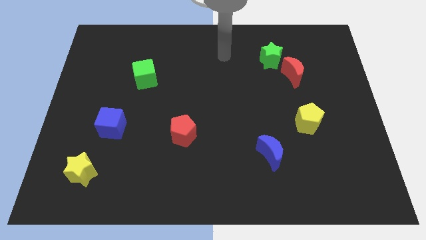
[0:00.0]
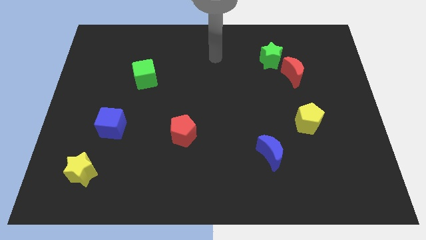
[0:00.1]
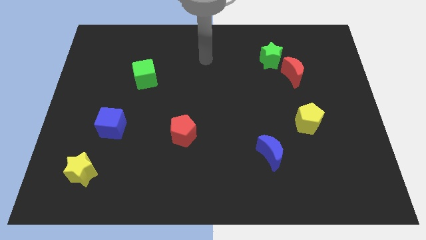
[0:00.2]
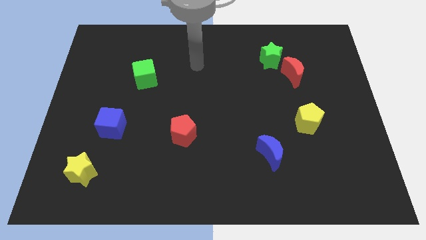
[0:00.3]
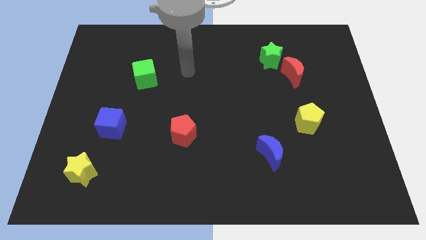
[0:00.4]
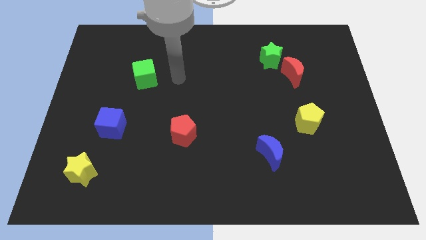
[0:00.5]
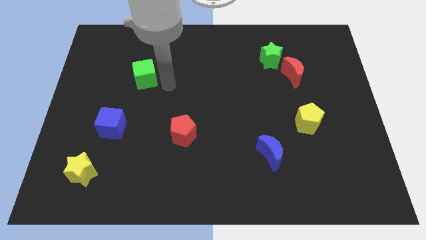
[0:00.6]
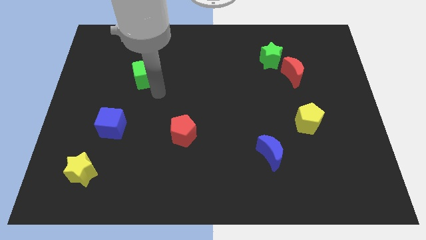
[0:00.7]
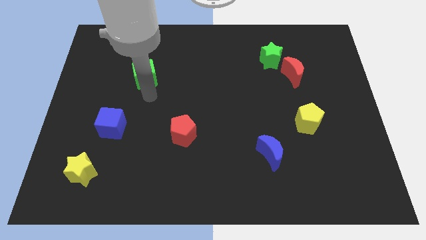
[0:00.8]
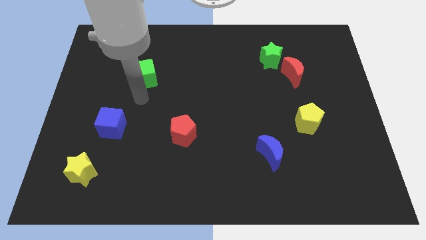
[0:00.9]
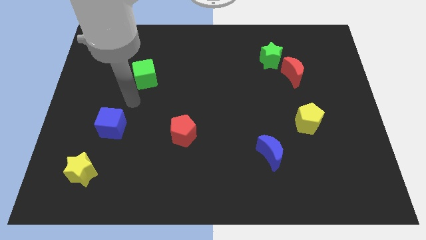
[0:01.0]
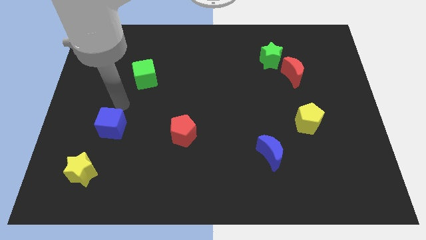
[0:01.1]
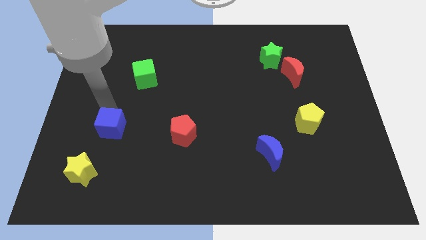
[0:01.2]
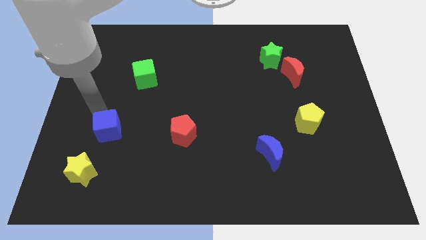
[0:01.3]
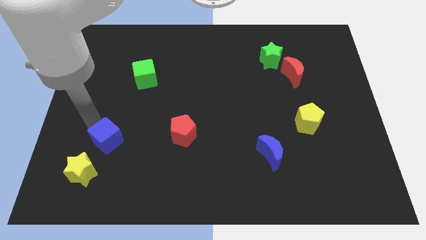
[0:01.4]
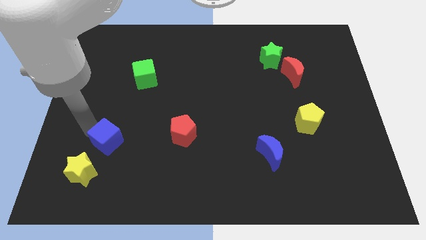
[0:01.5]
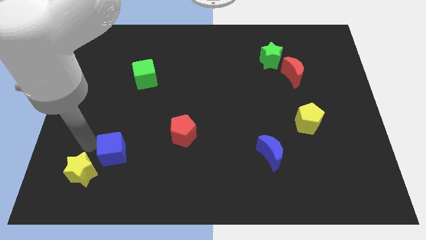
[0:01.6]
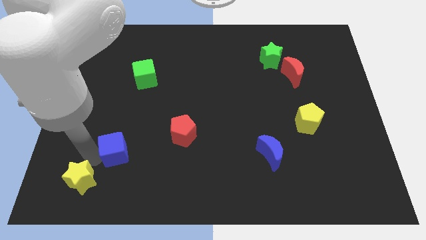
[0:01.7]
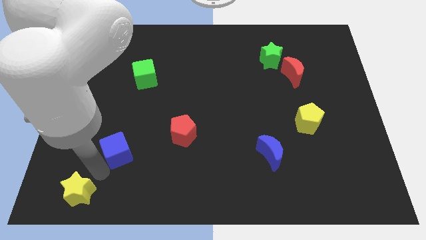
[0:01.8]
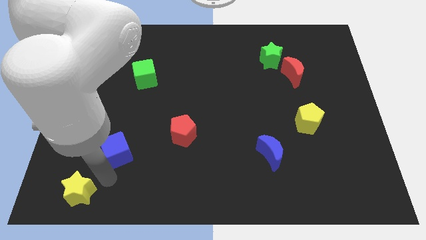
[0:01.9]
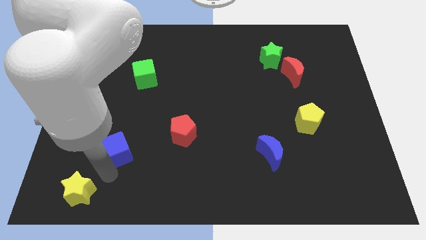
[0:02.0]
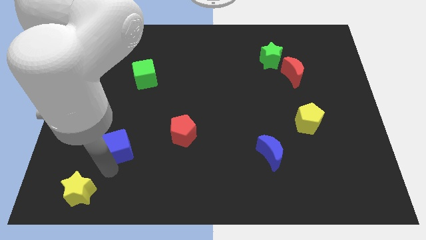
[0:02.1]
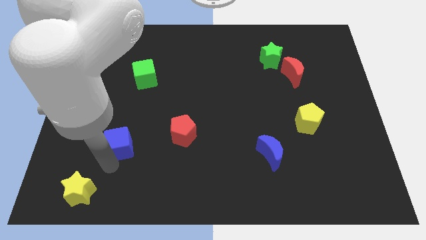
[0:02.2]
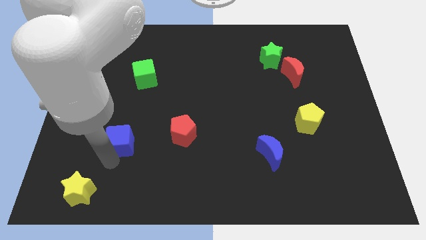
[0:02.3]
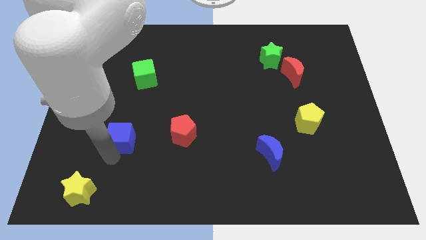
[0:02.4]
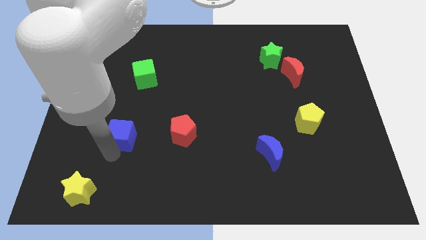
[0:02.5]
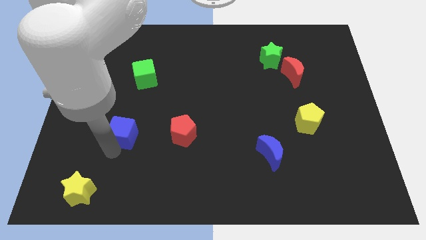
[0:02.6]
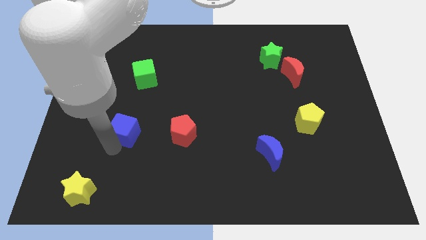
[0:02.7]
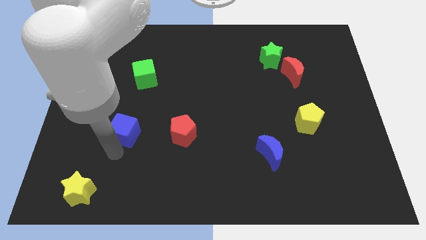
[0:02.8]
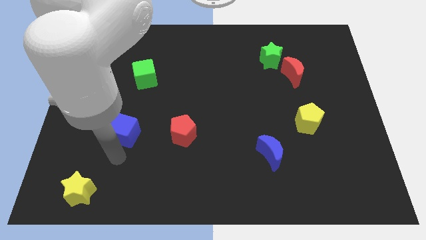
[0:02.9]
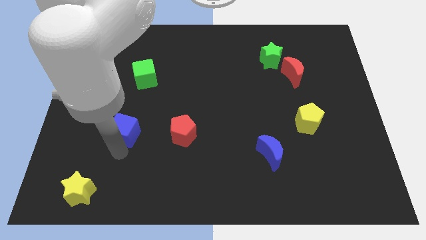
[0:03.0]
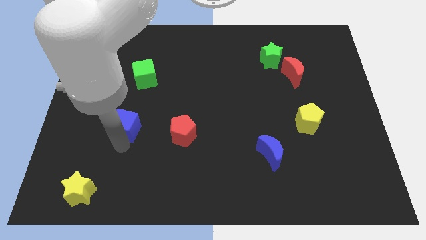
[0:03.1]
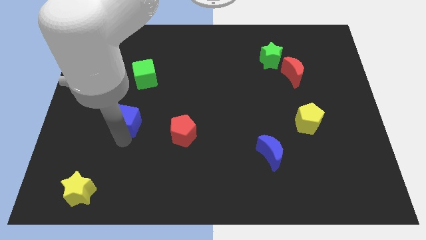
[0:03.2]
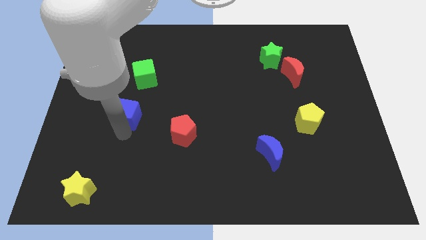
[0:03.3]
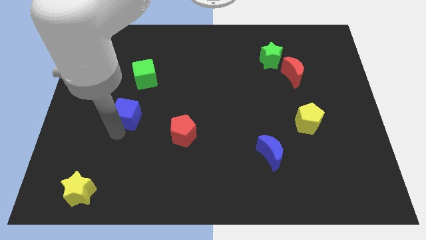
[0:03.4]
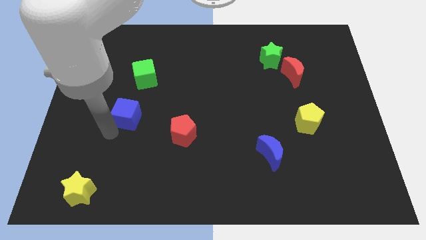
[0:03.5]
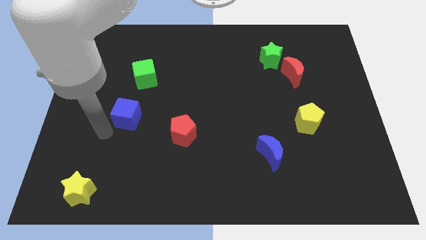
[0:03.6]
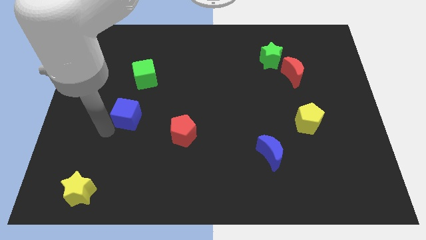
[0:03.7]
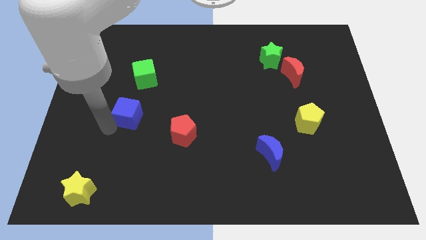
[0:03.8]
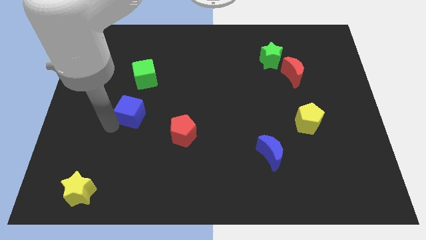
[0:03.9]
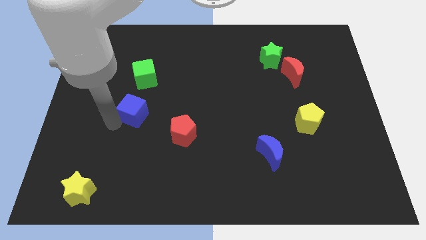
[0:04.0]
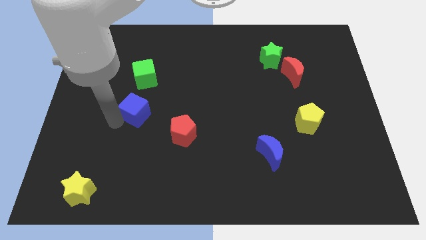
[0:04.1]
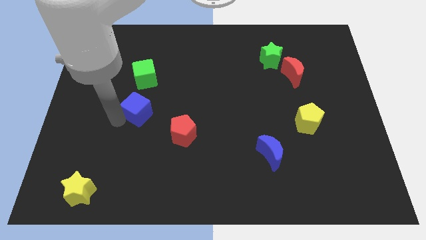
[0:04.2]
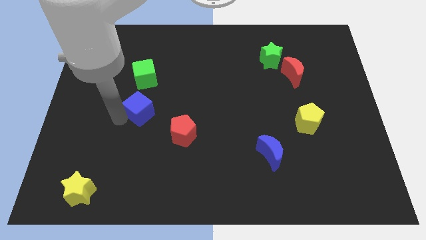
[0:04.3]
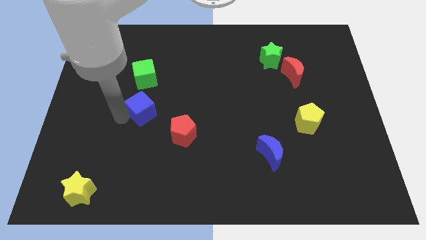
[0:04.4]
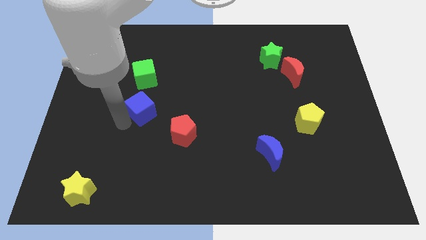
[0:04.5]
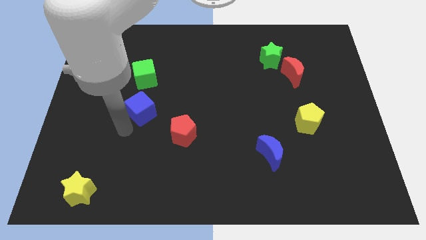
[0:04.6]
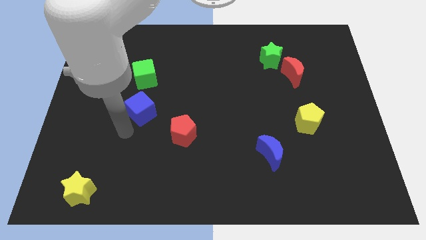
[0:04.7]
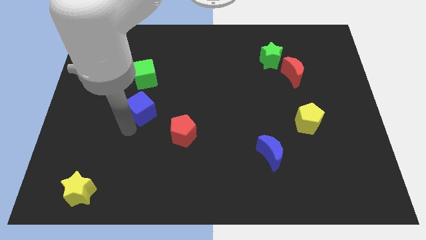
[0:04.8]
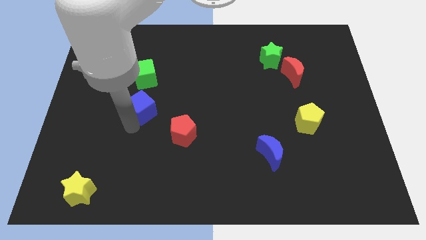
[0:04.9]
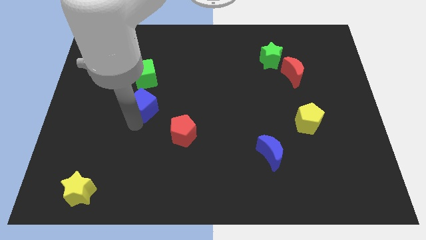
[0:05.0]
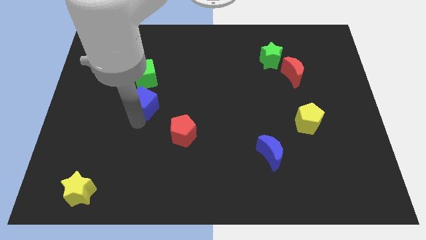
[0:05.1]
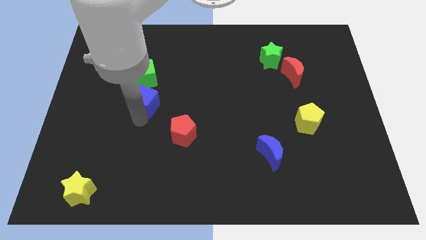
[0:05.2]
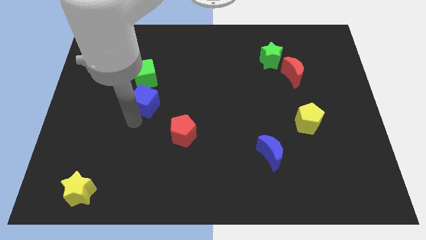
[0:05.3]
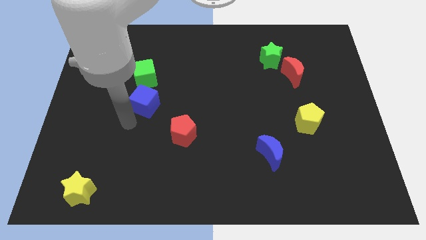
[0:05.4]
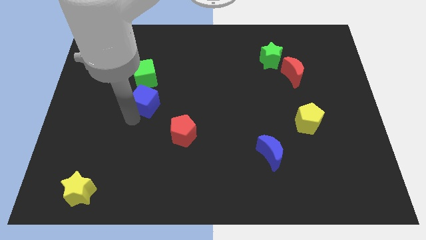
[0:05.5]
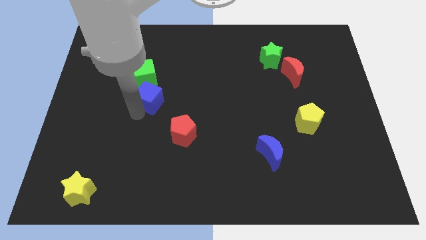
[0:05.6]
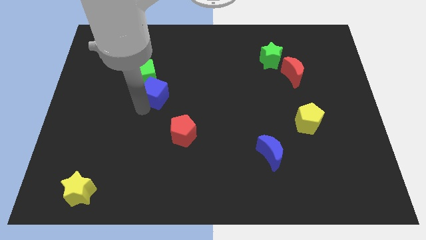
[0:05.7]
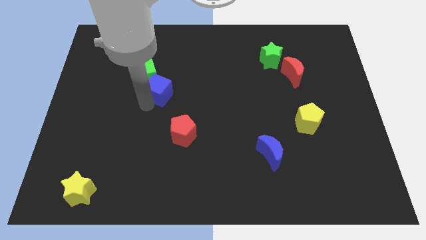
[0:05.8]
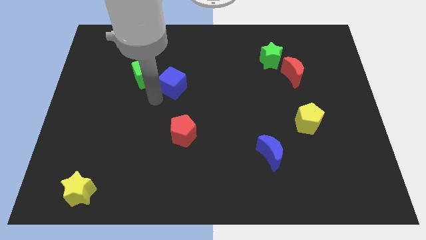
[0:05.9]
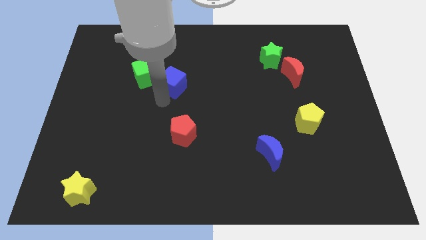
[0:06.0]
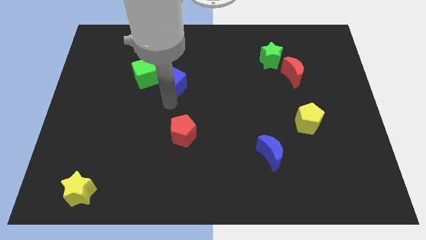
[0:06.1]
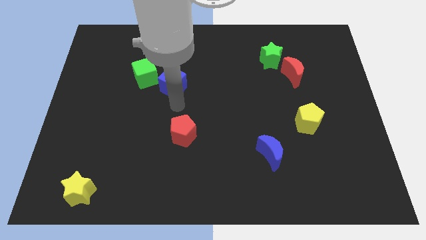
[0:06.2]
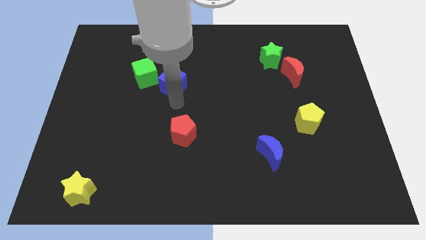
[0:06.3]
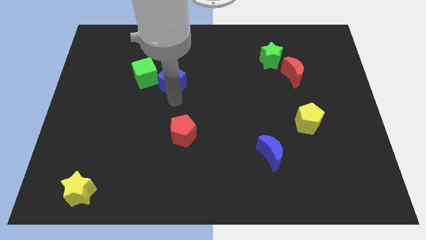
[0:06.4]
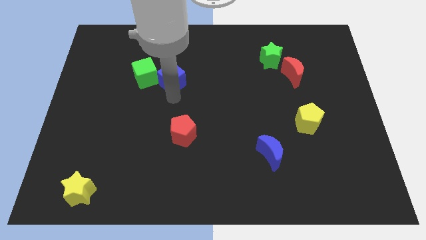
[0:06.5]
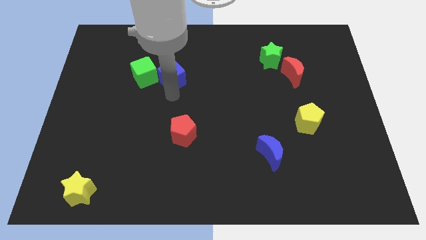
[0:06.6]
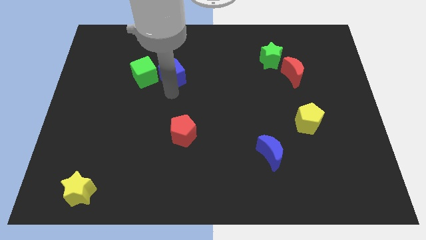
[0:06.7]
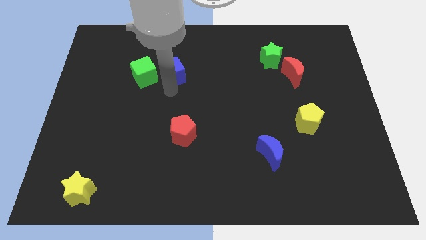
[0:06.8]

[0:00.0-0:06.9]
slide the blue cube to the top right side of the green cube

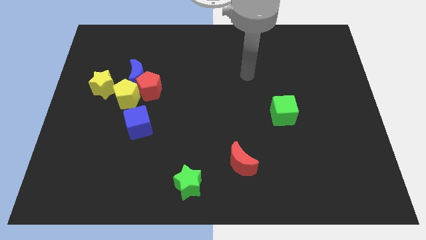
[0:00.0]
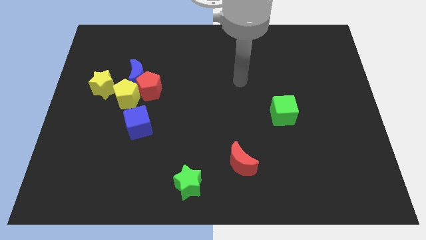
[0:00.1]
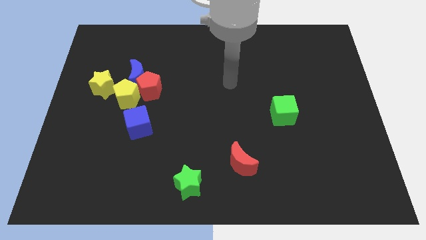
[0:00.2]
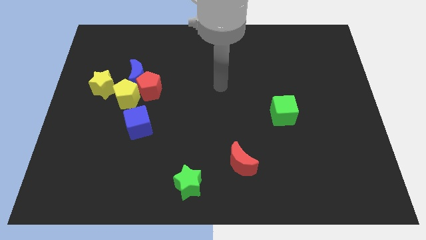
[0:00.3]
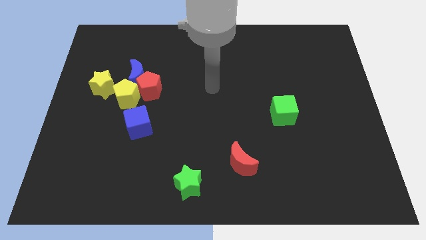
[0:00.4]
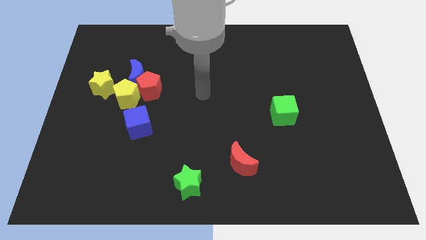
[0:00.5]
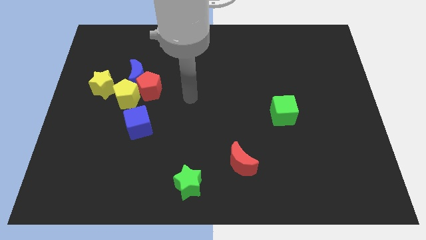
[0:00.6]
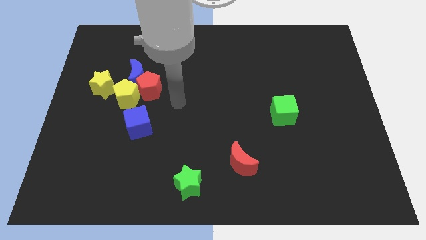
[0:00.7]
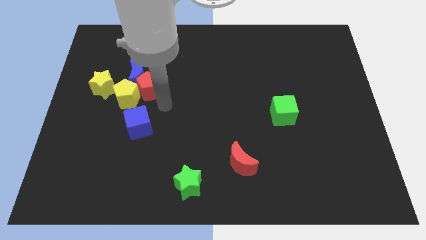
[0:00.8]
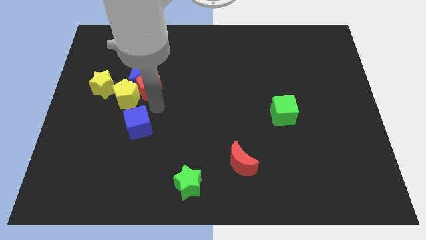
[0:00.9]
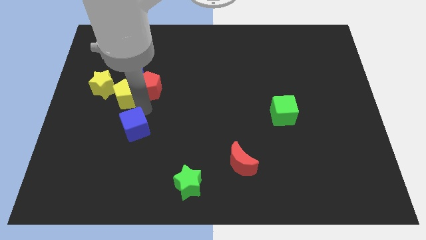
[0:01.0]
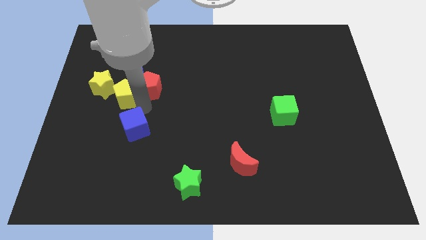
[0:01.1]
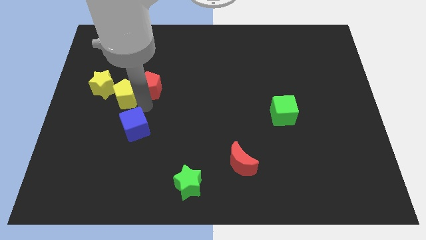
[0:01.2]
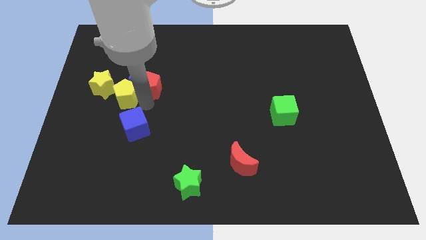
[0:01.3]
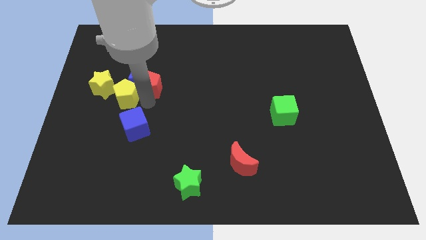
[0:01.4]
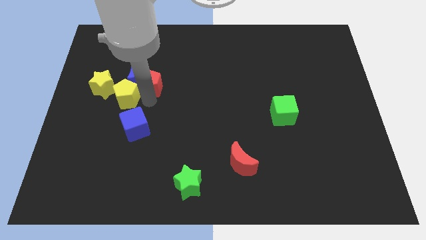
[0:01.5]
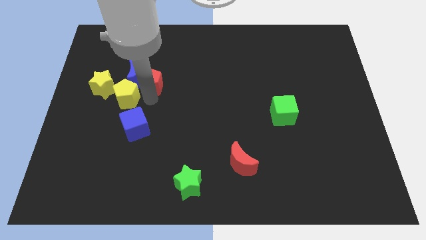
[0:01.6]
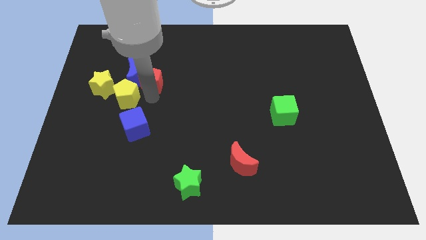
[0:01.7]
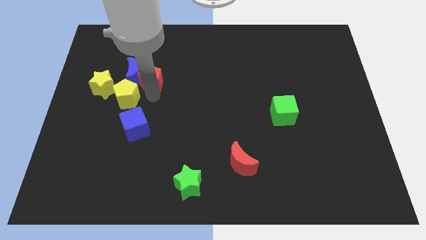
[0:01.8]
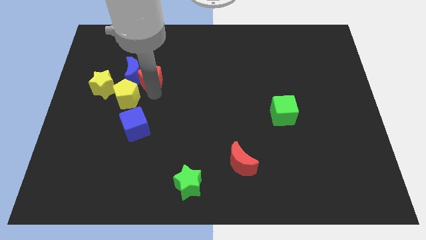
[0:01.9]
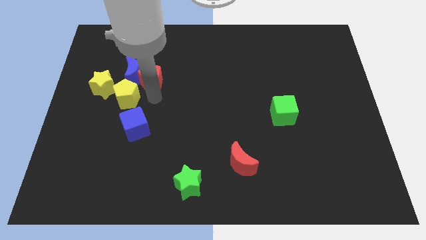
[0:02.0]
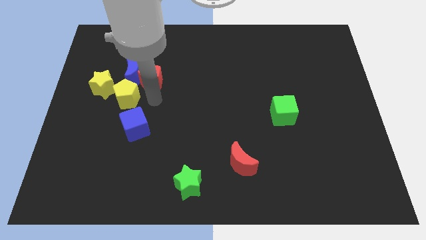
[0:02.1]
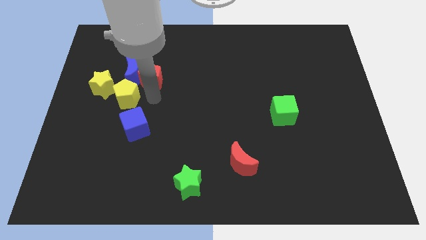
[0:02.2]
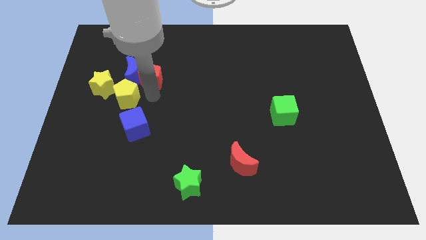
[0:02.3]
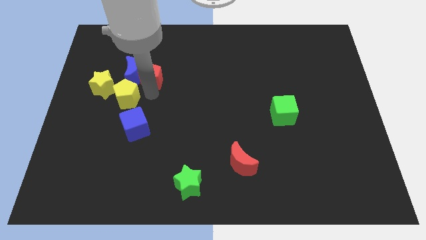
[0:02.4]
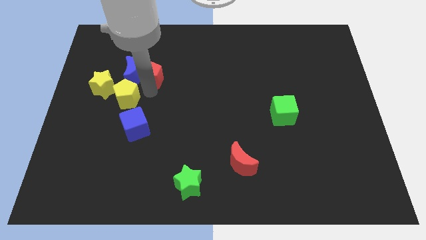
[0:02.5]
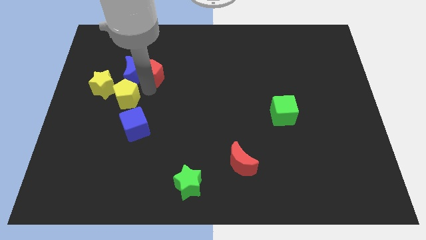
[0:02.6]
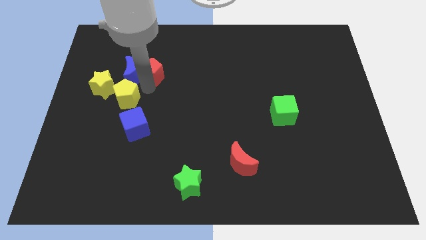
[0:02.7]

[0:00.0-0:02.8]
move the red pentagon to the top of the yellow pentagon
